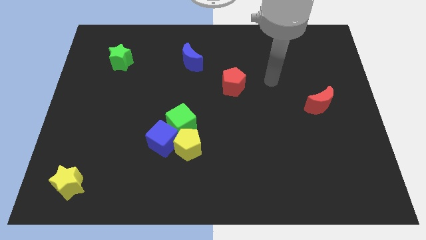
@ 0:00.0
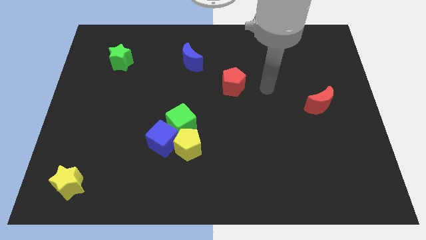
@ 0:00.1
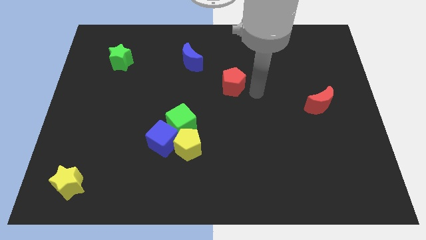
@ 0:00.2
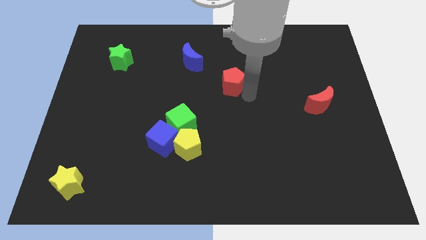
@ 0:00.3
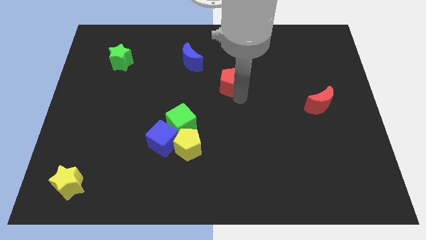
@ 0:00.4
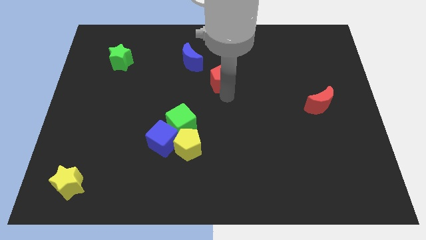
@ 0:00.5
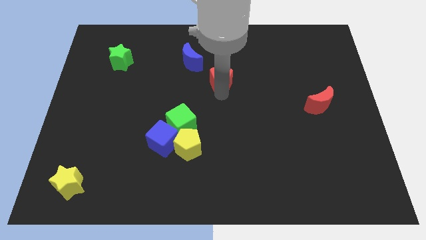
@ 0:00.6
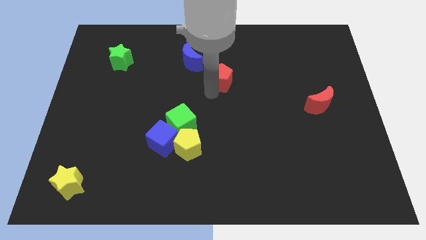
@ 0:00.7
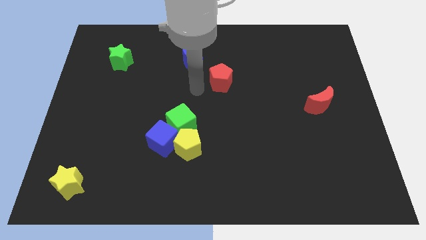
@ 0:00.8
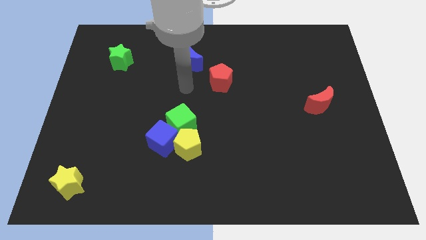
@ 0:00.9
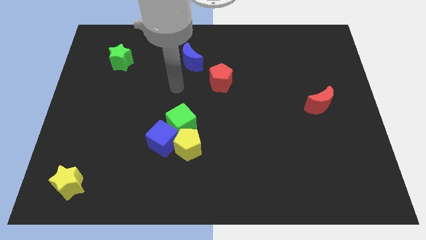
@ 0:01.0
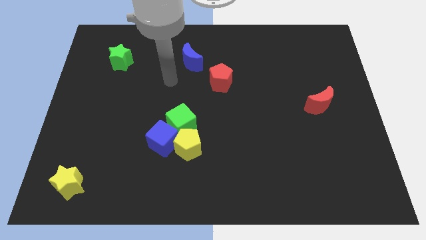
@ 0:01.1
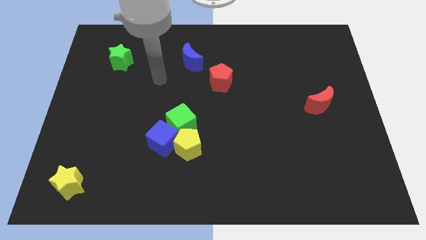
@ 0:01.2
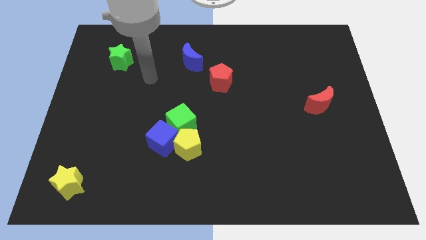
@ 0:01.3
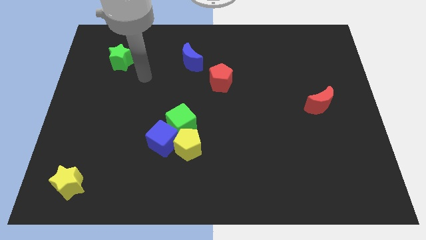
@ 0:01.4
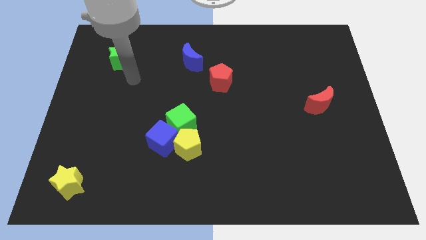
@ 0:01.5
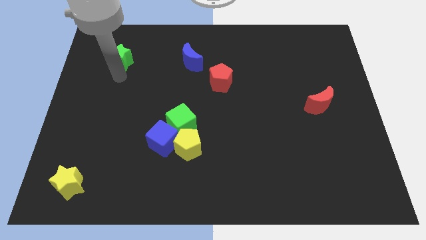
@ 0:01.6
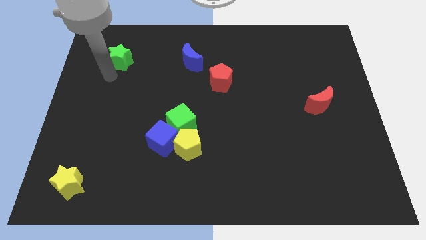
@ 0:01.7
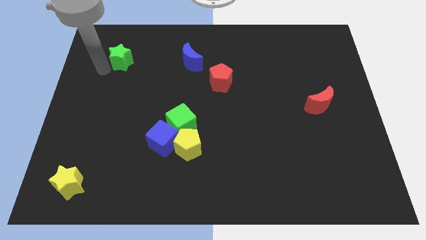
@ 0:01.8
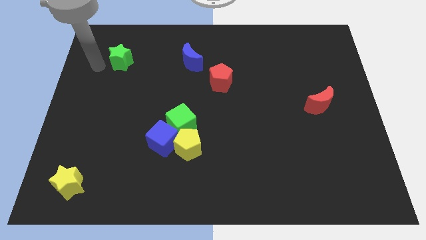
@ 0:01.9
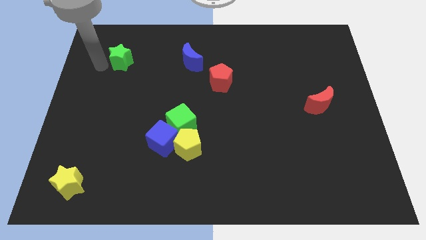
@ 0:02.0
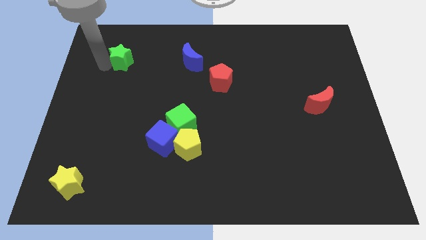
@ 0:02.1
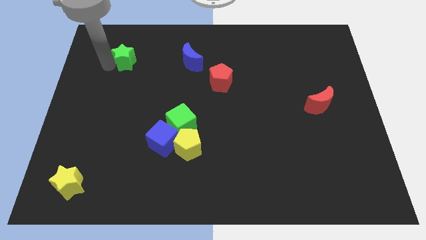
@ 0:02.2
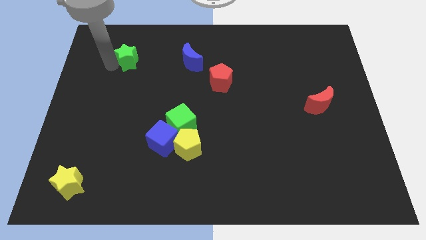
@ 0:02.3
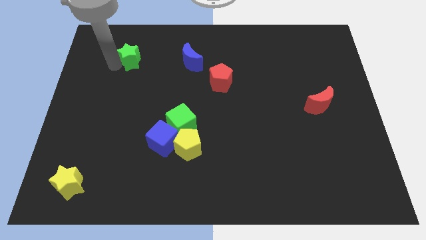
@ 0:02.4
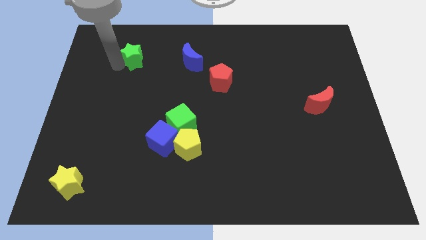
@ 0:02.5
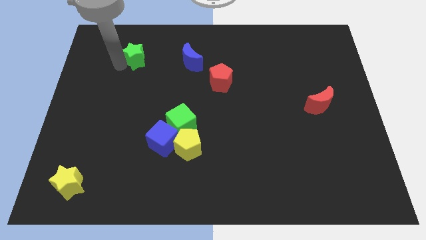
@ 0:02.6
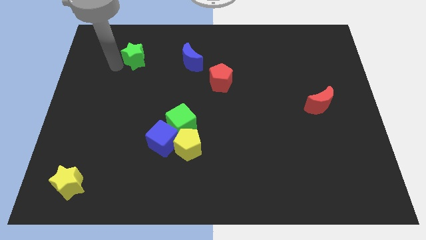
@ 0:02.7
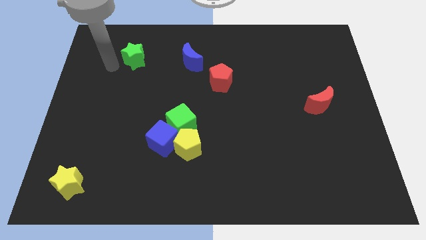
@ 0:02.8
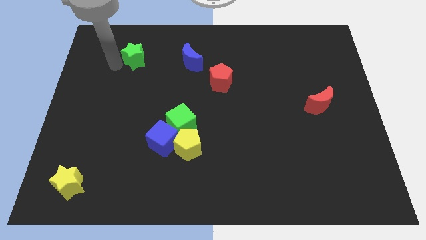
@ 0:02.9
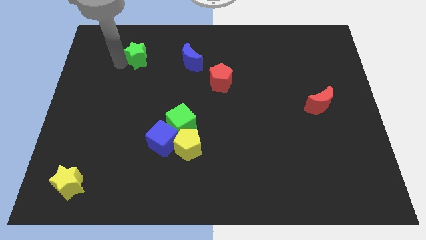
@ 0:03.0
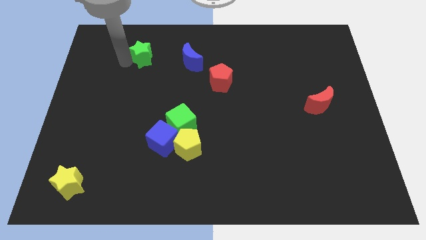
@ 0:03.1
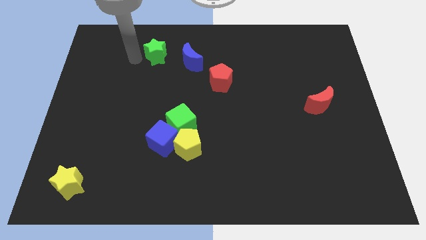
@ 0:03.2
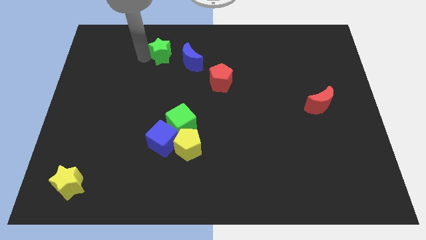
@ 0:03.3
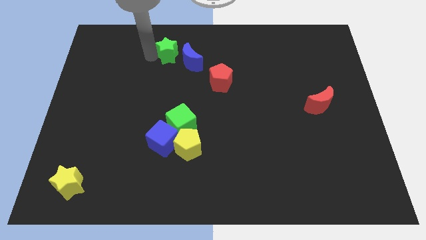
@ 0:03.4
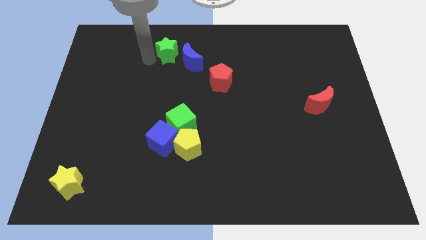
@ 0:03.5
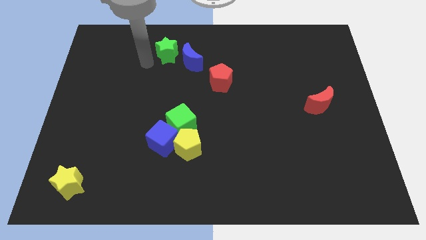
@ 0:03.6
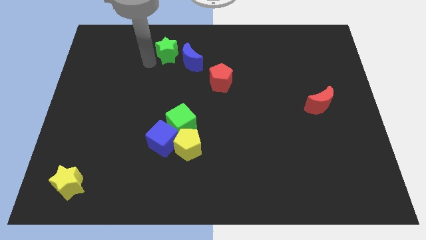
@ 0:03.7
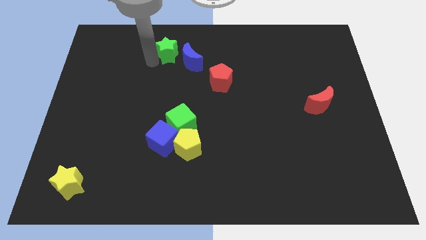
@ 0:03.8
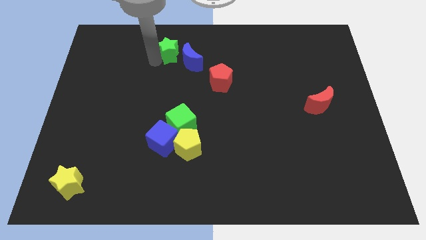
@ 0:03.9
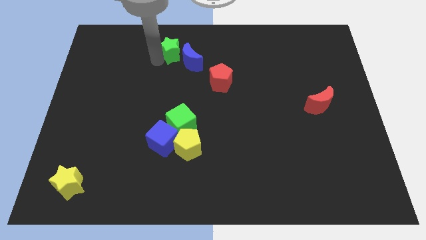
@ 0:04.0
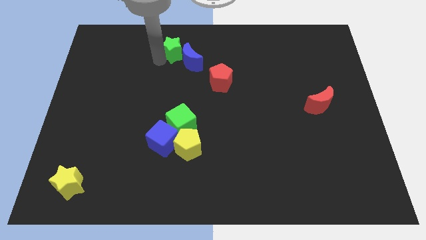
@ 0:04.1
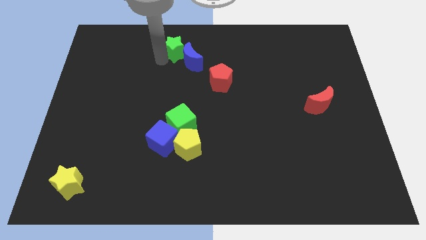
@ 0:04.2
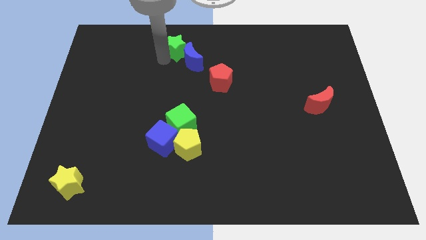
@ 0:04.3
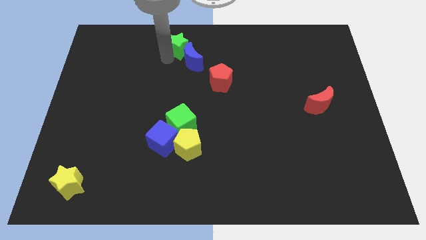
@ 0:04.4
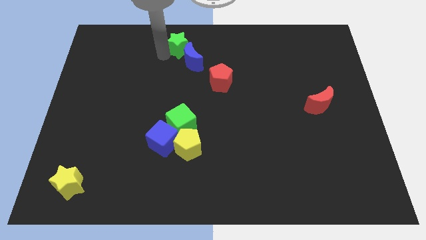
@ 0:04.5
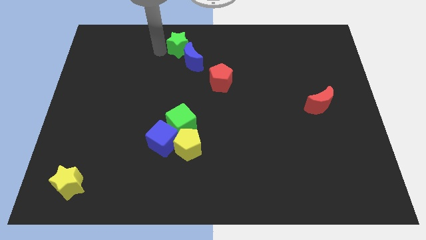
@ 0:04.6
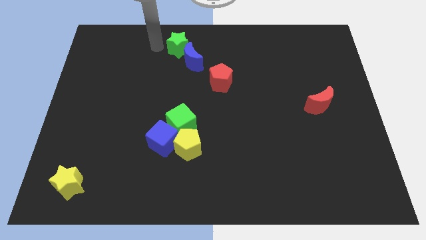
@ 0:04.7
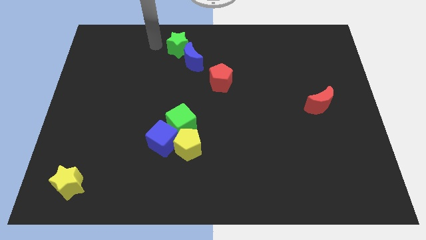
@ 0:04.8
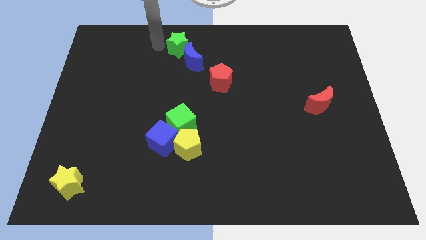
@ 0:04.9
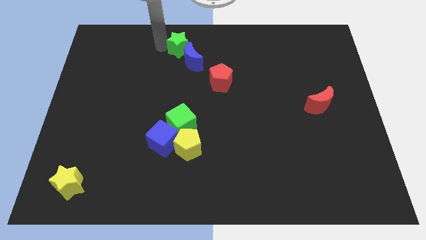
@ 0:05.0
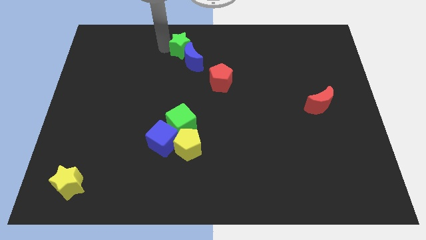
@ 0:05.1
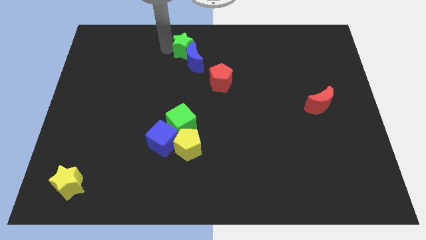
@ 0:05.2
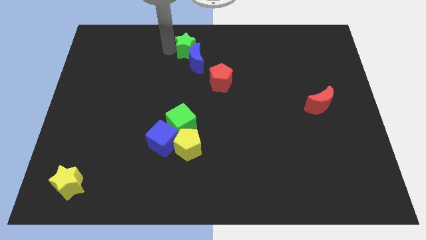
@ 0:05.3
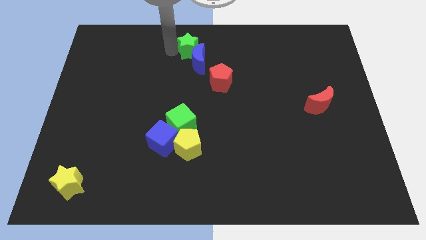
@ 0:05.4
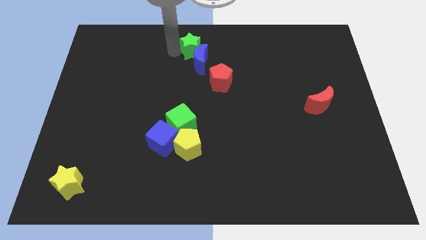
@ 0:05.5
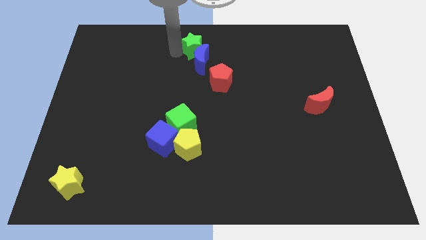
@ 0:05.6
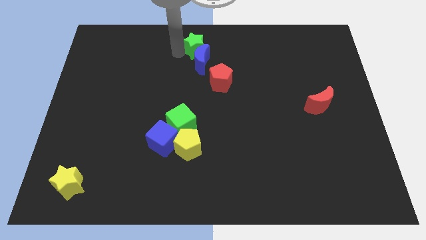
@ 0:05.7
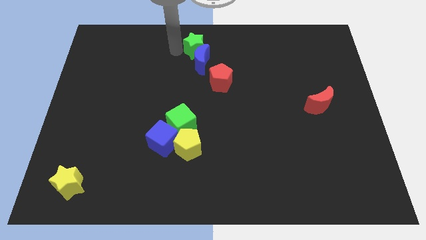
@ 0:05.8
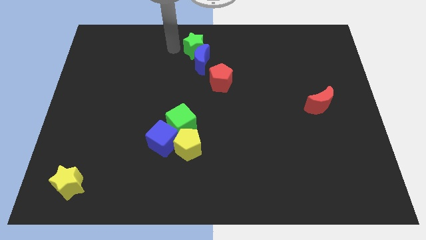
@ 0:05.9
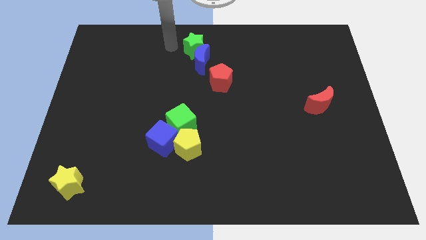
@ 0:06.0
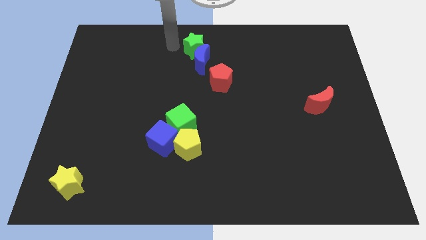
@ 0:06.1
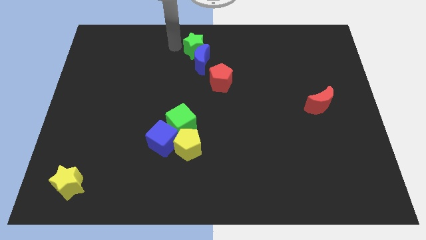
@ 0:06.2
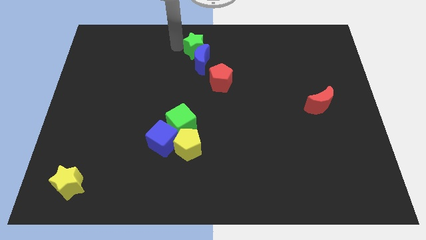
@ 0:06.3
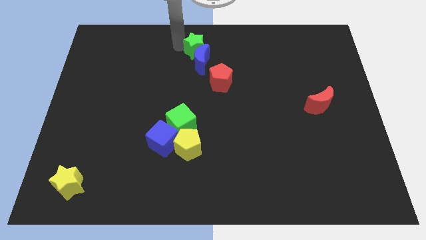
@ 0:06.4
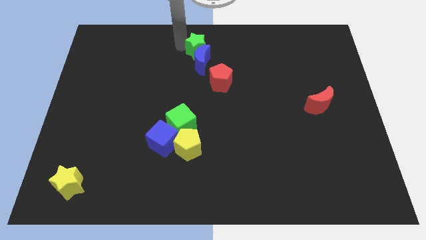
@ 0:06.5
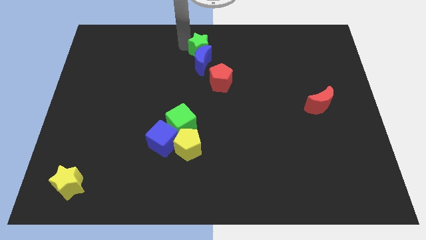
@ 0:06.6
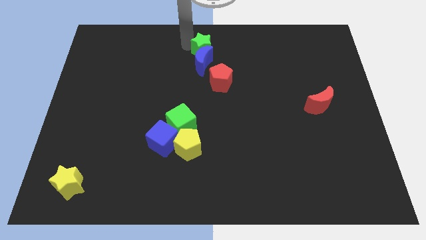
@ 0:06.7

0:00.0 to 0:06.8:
push the green star to the right

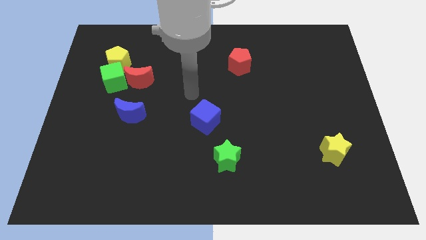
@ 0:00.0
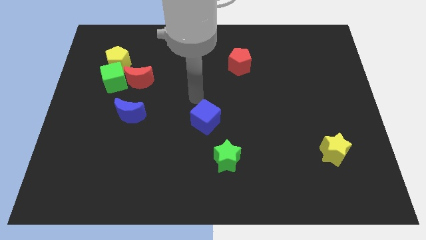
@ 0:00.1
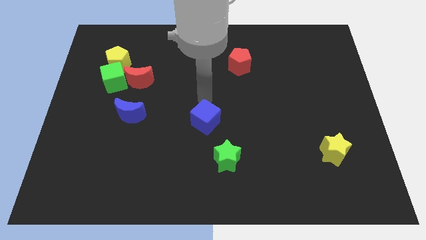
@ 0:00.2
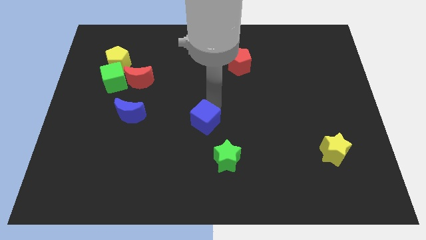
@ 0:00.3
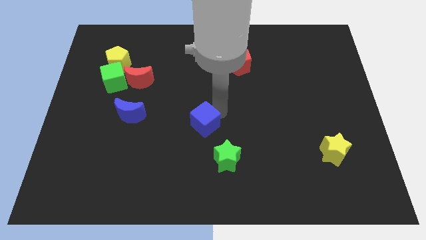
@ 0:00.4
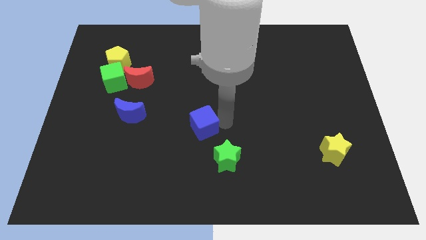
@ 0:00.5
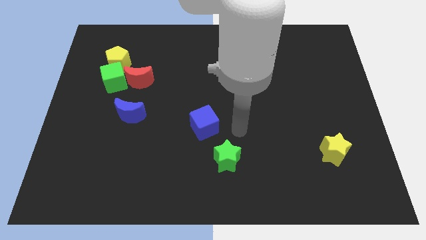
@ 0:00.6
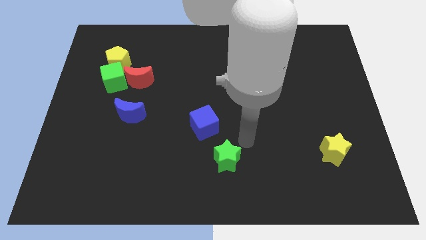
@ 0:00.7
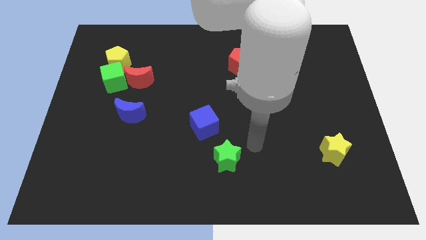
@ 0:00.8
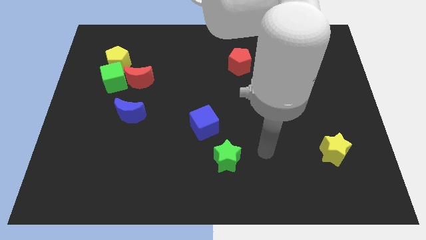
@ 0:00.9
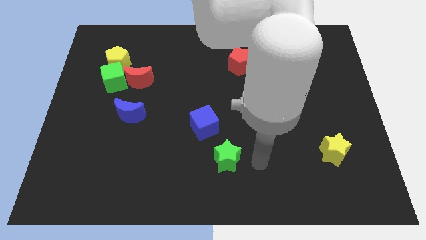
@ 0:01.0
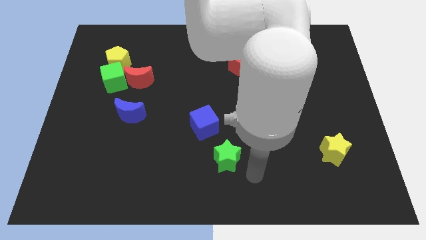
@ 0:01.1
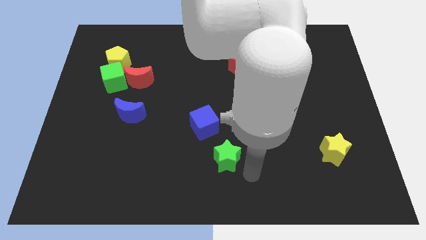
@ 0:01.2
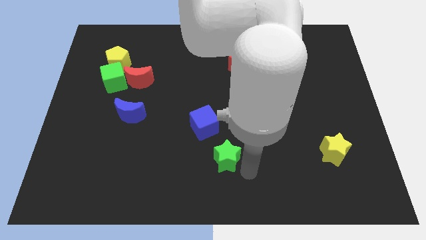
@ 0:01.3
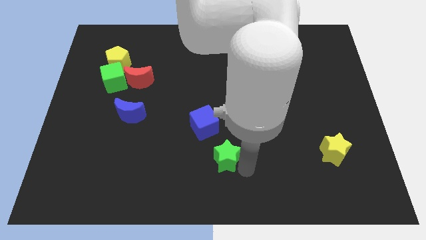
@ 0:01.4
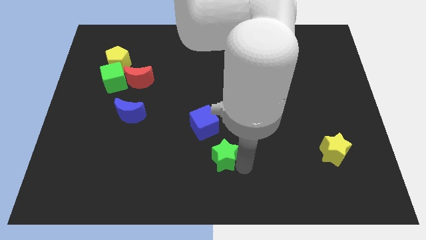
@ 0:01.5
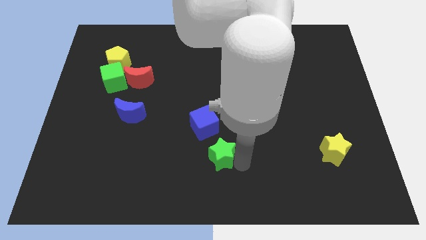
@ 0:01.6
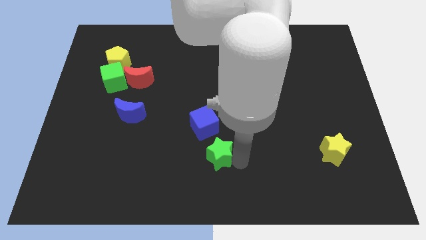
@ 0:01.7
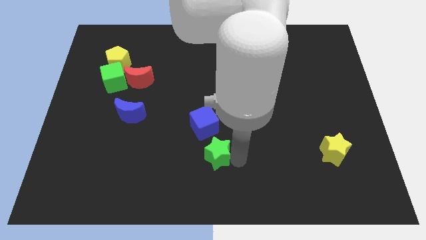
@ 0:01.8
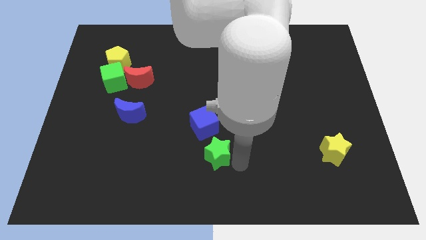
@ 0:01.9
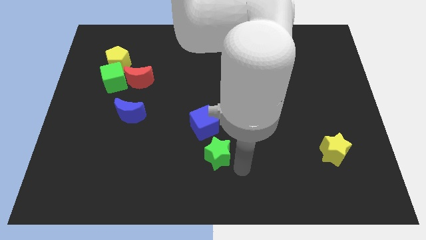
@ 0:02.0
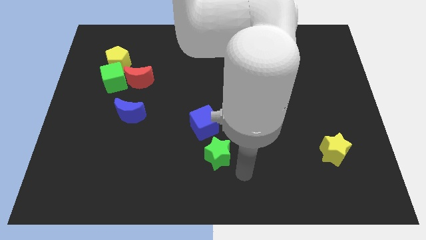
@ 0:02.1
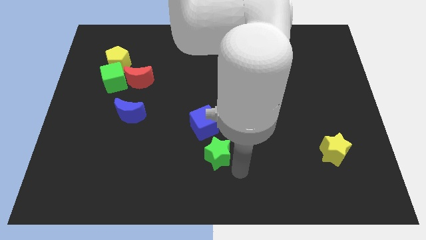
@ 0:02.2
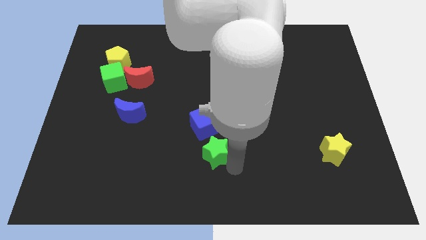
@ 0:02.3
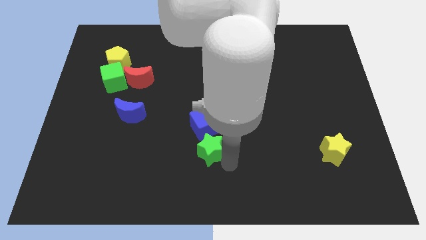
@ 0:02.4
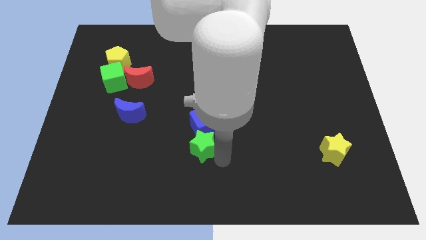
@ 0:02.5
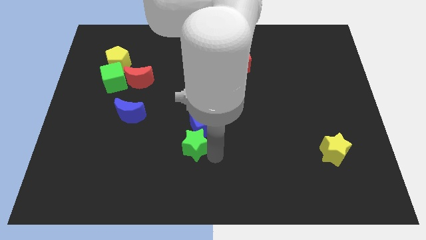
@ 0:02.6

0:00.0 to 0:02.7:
slide the green star a little bit up and left
